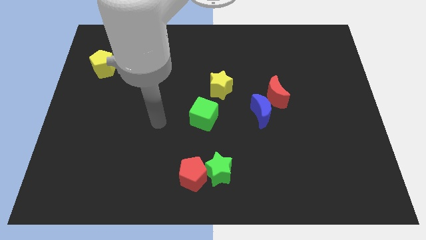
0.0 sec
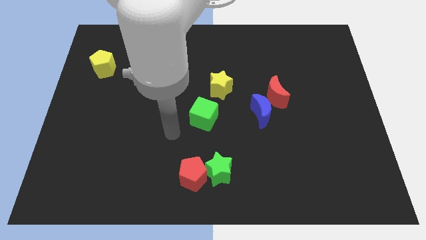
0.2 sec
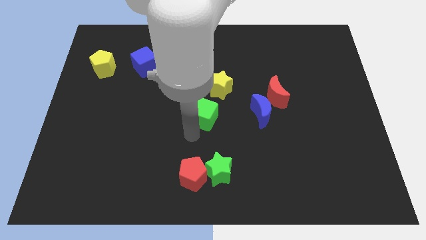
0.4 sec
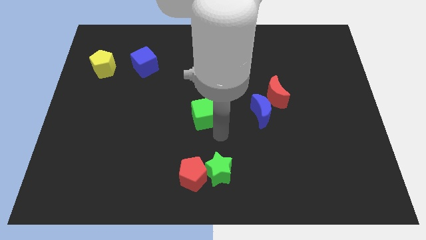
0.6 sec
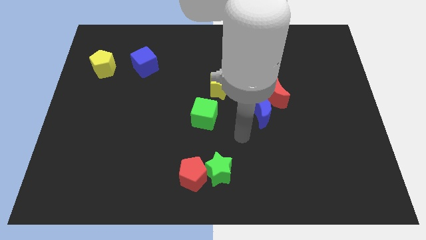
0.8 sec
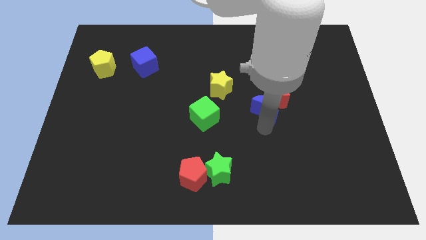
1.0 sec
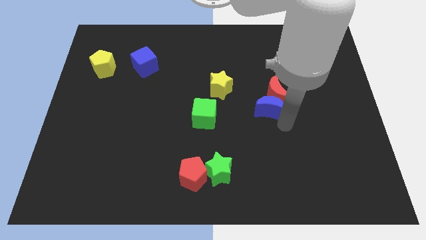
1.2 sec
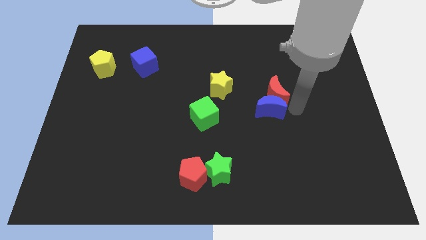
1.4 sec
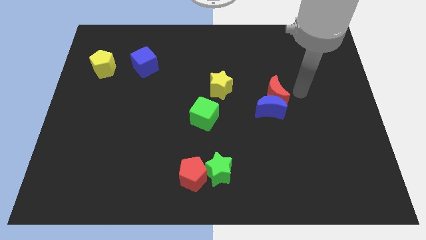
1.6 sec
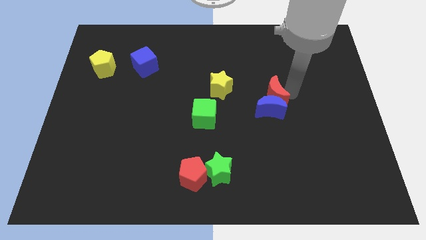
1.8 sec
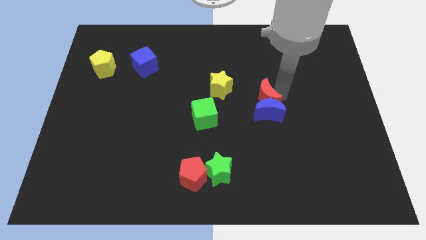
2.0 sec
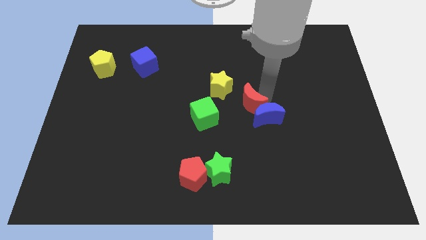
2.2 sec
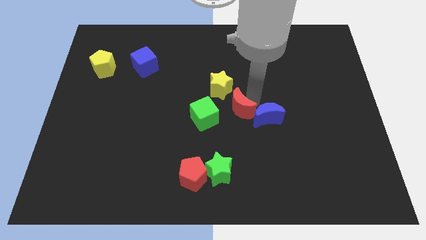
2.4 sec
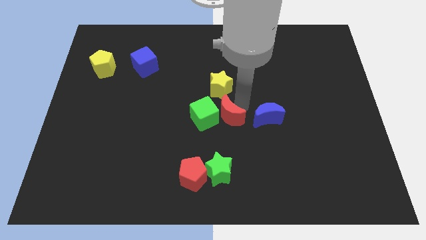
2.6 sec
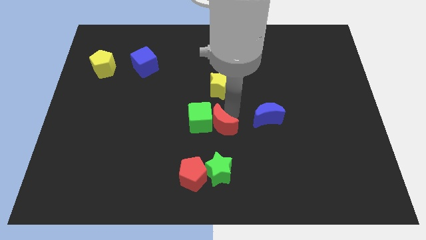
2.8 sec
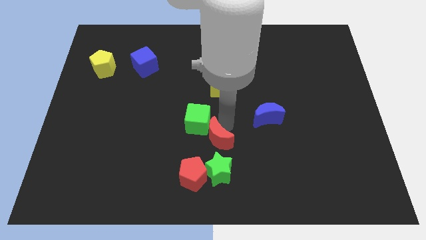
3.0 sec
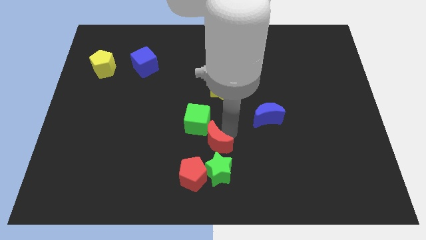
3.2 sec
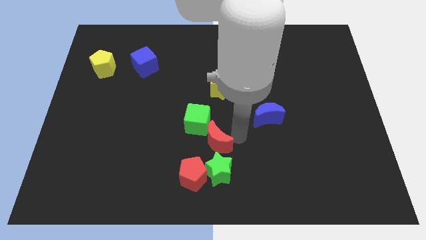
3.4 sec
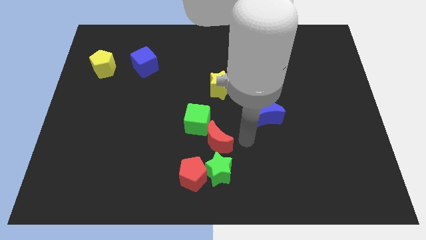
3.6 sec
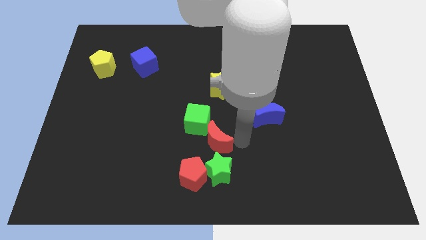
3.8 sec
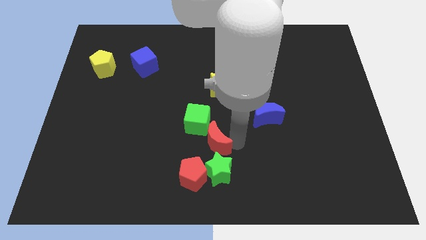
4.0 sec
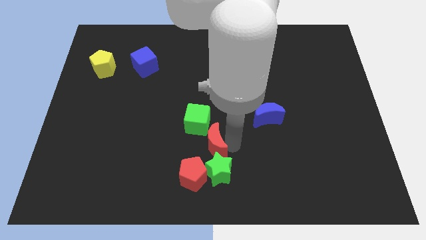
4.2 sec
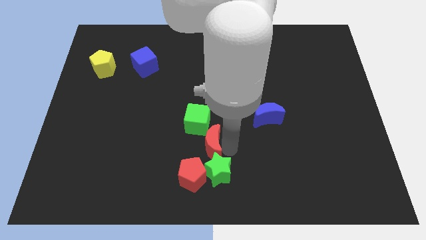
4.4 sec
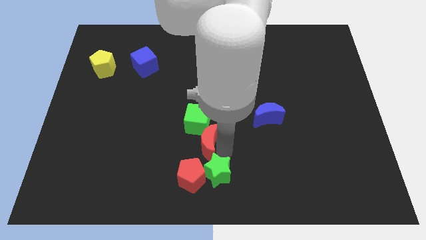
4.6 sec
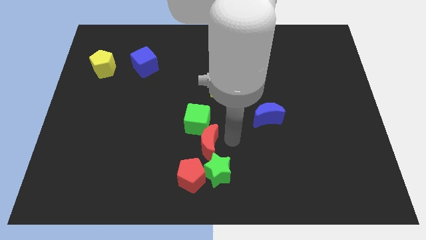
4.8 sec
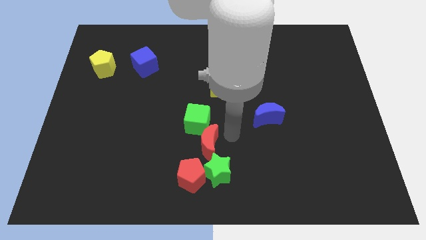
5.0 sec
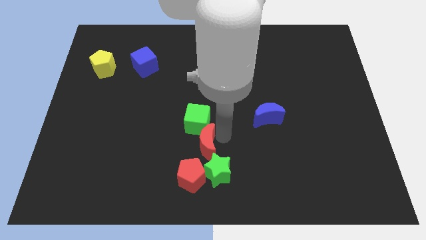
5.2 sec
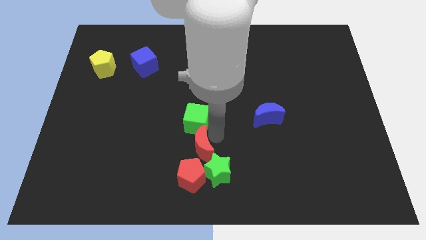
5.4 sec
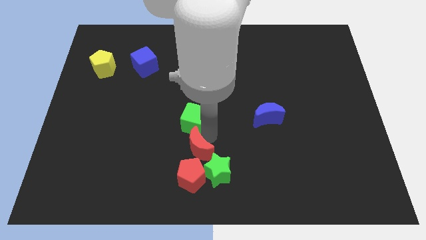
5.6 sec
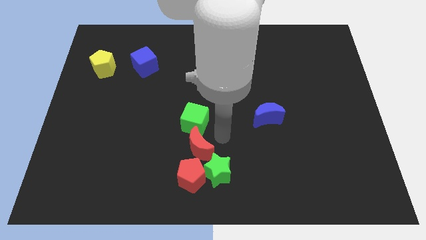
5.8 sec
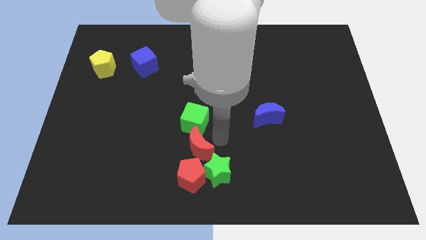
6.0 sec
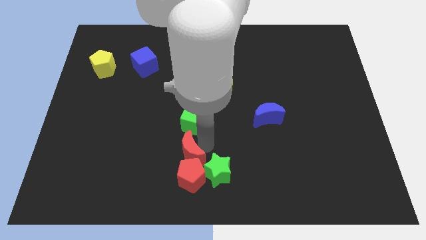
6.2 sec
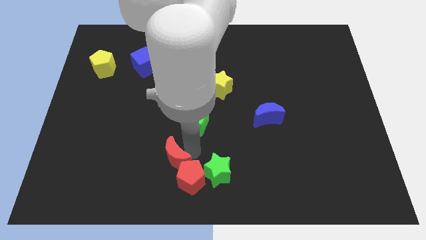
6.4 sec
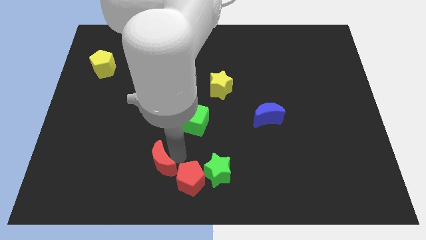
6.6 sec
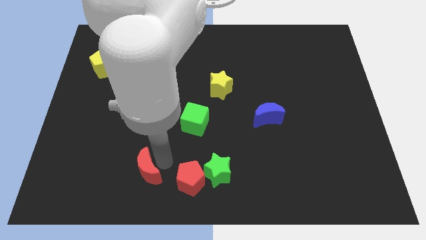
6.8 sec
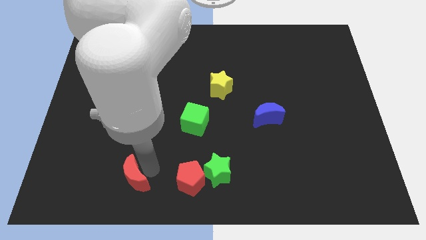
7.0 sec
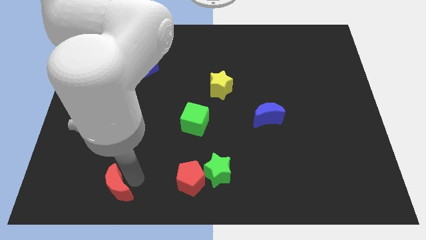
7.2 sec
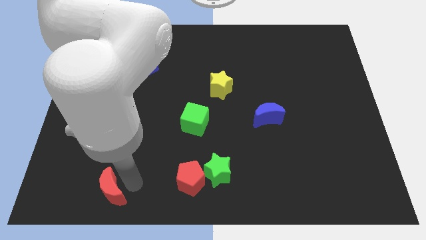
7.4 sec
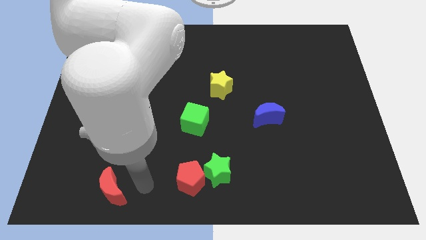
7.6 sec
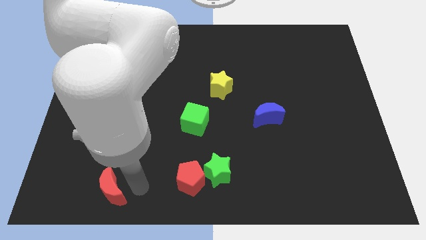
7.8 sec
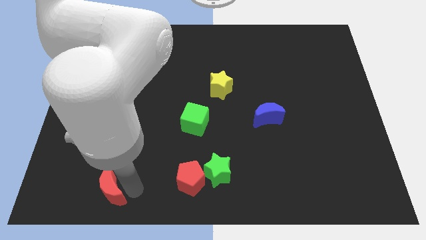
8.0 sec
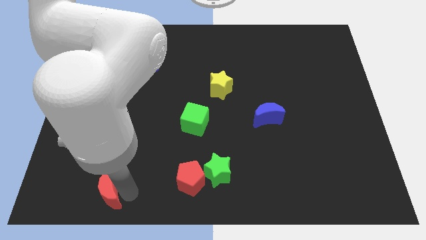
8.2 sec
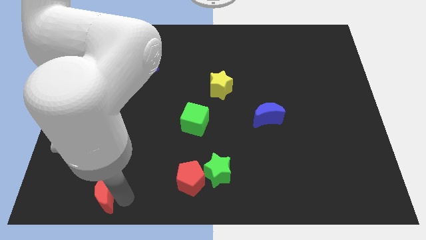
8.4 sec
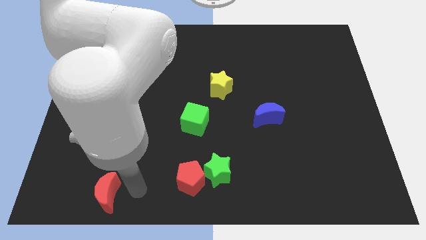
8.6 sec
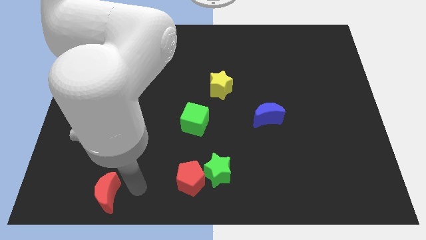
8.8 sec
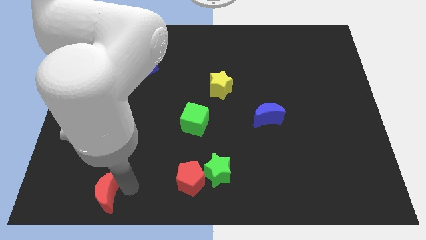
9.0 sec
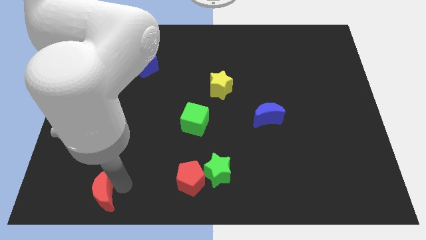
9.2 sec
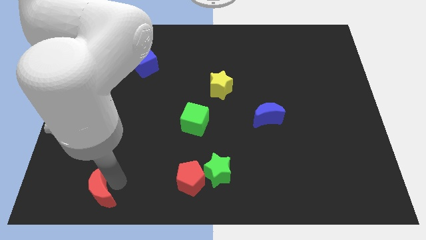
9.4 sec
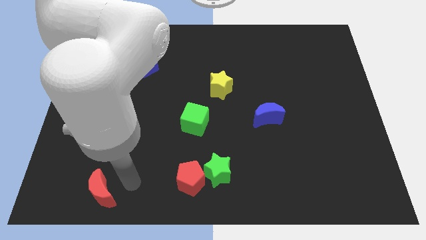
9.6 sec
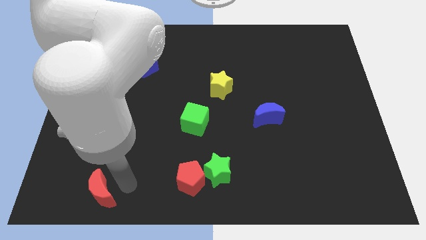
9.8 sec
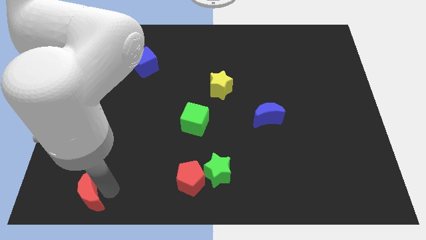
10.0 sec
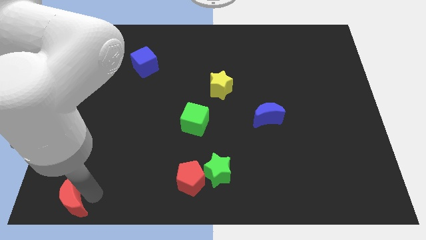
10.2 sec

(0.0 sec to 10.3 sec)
slide the red moon to the lower left corner

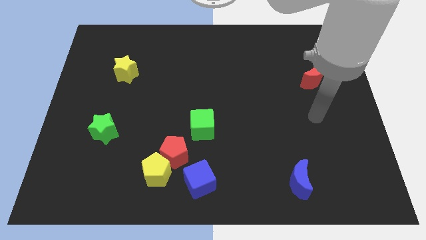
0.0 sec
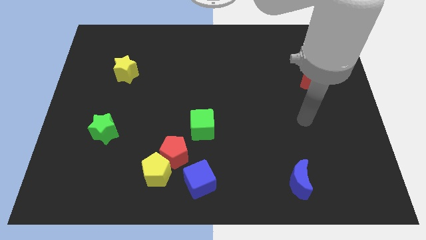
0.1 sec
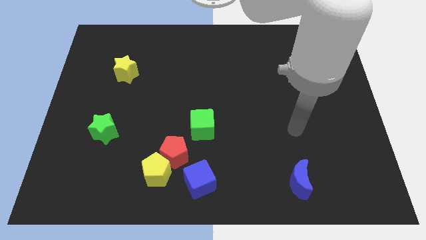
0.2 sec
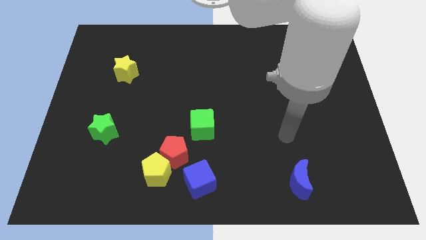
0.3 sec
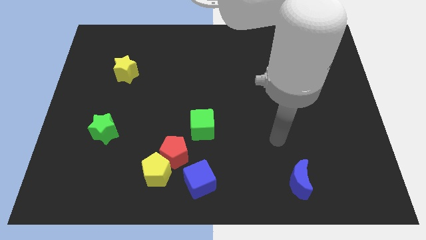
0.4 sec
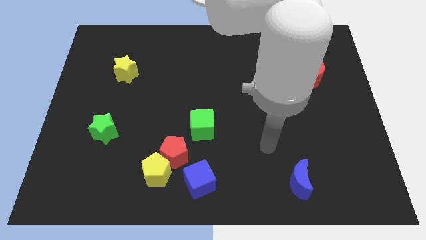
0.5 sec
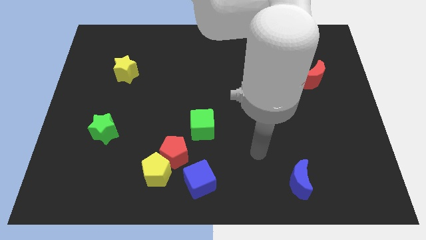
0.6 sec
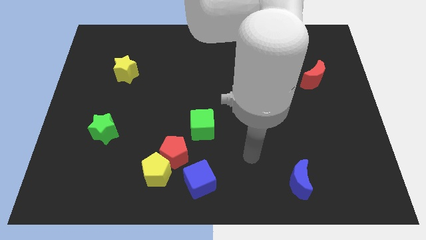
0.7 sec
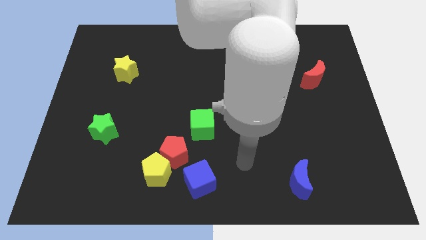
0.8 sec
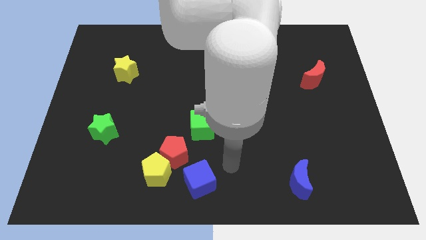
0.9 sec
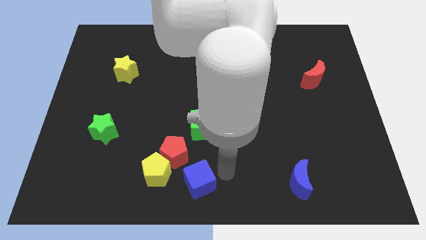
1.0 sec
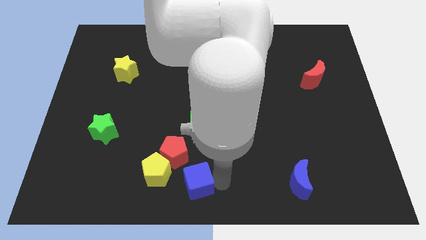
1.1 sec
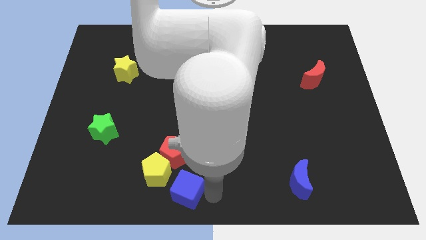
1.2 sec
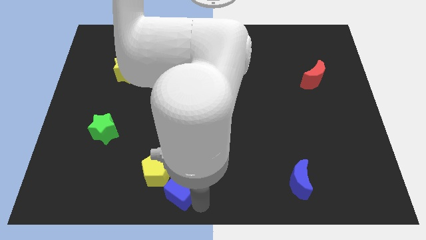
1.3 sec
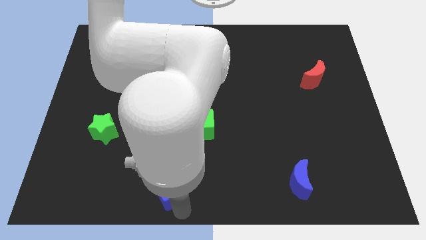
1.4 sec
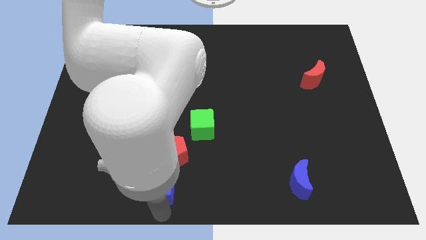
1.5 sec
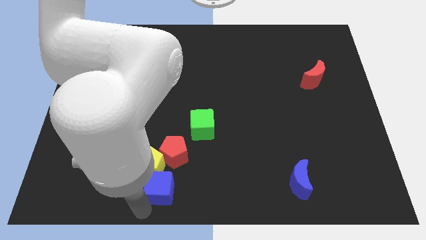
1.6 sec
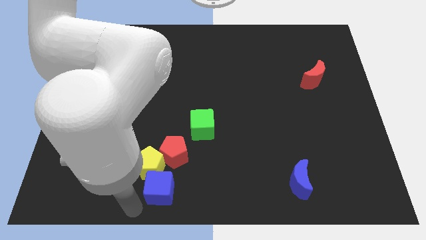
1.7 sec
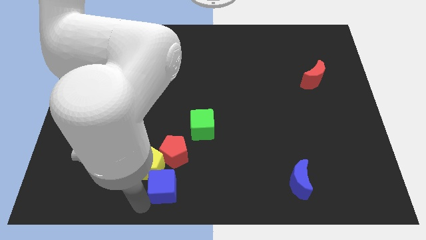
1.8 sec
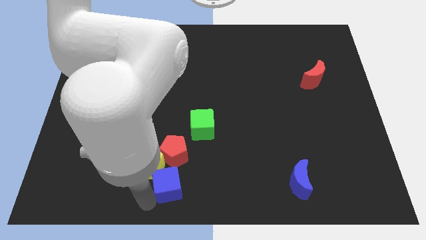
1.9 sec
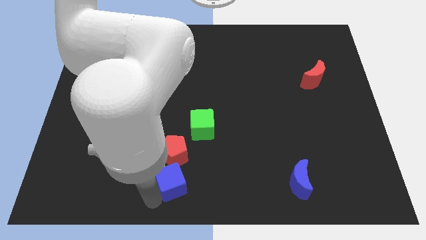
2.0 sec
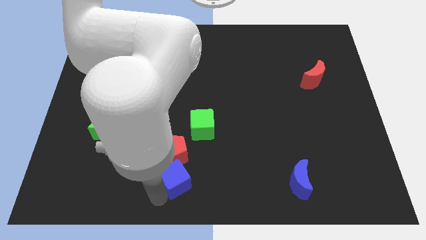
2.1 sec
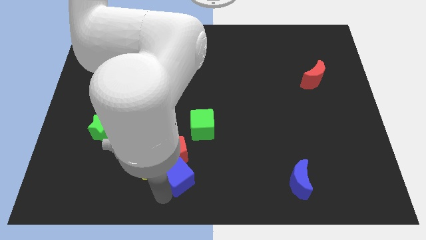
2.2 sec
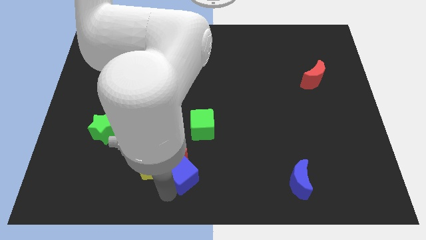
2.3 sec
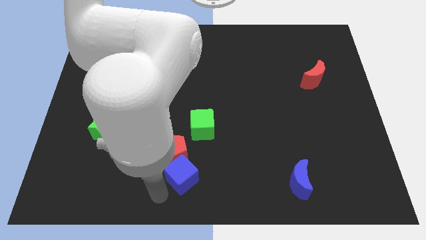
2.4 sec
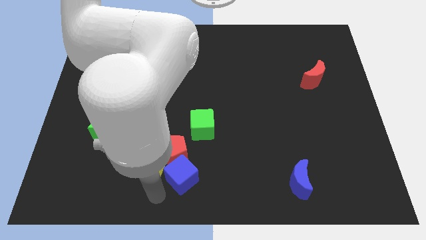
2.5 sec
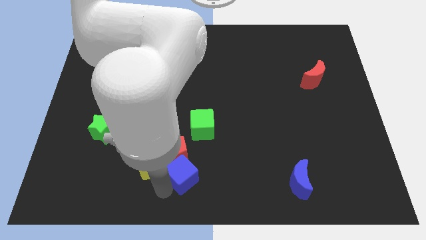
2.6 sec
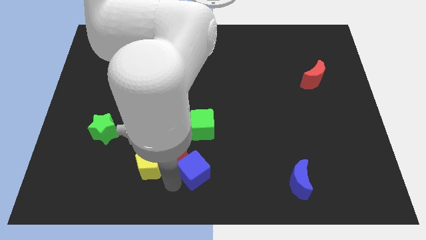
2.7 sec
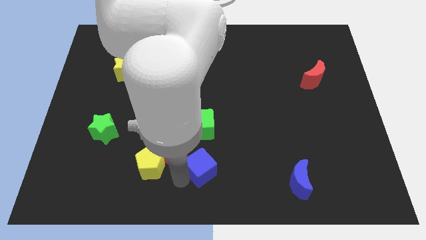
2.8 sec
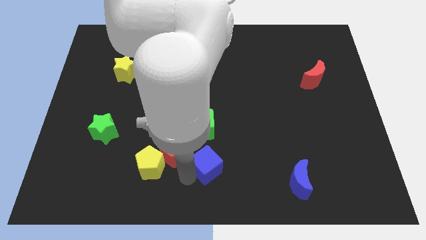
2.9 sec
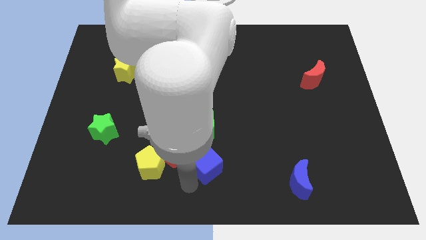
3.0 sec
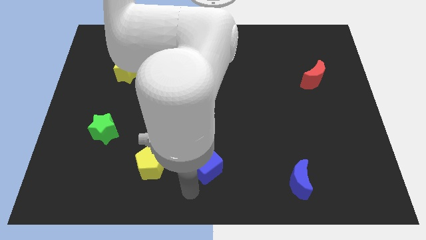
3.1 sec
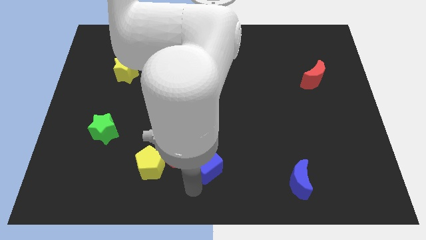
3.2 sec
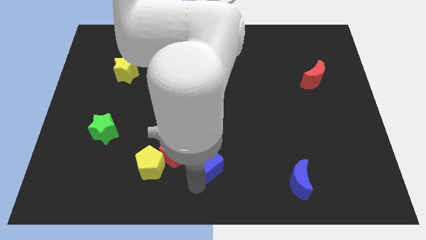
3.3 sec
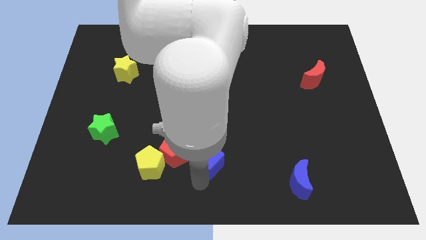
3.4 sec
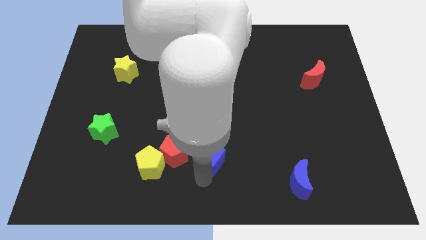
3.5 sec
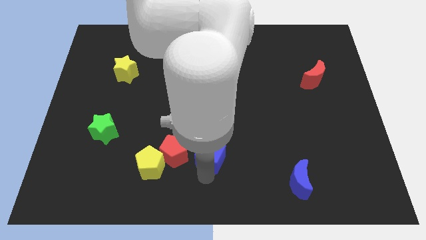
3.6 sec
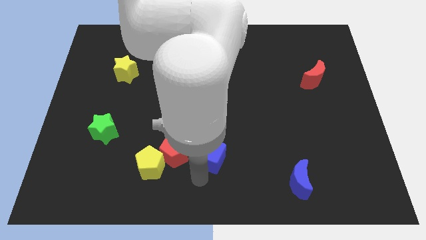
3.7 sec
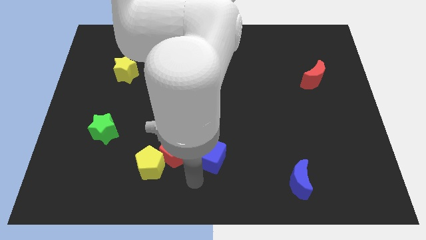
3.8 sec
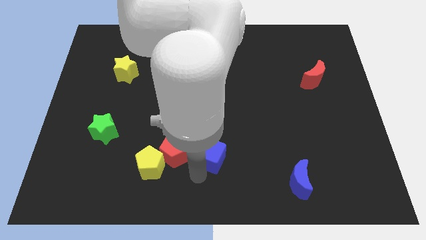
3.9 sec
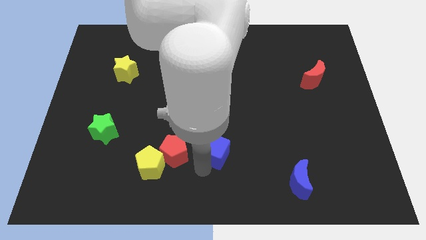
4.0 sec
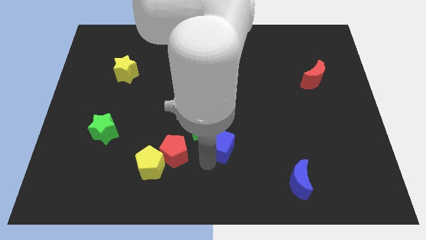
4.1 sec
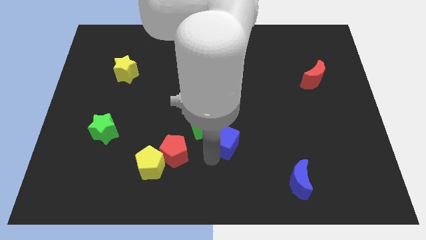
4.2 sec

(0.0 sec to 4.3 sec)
move the blue cube to the middle of the board
